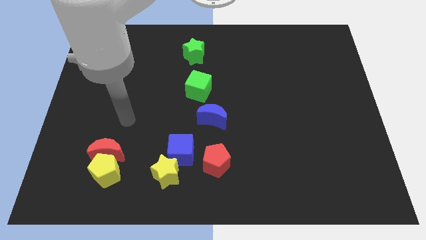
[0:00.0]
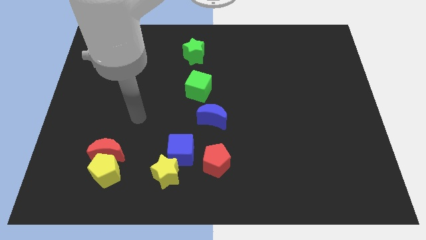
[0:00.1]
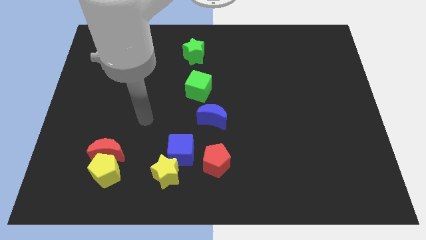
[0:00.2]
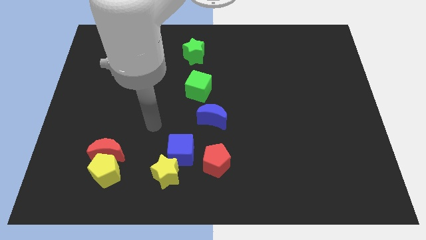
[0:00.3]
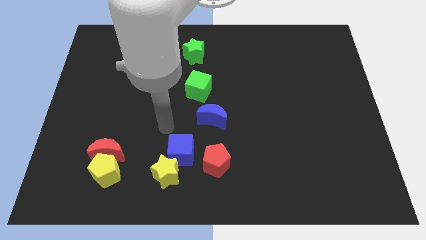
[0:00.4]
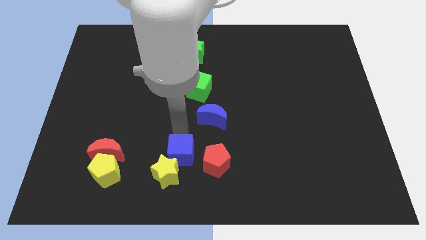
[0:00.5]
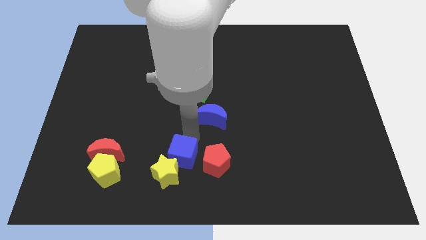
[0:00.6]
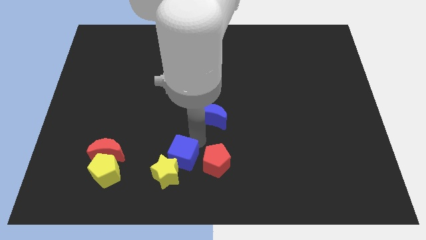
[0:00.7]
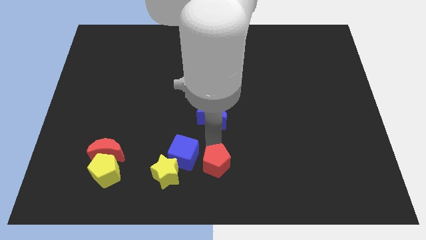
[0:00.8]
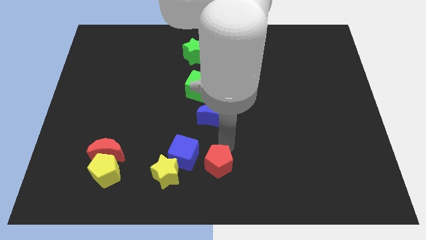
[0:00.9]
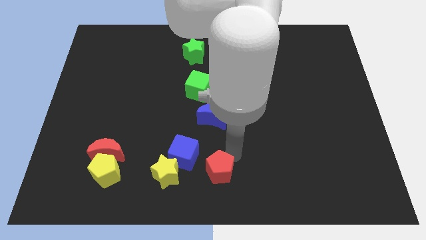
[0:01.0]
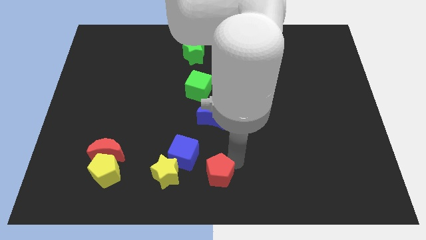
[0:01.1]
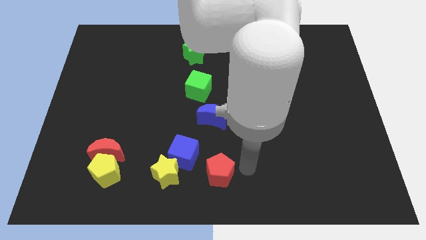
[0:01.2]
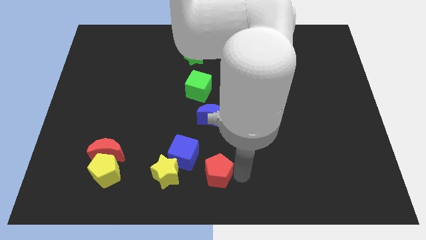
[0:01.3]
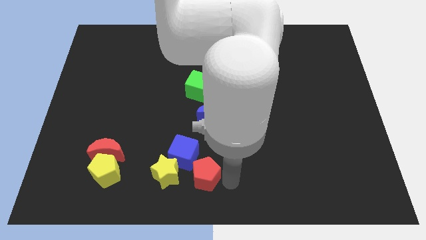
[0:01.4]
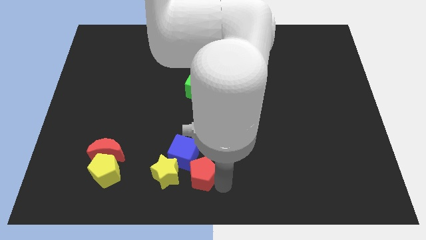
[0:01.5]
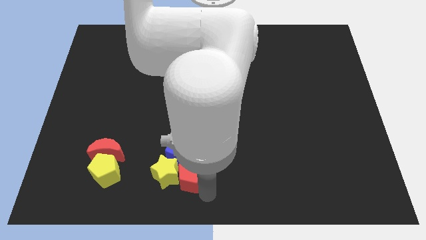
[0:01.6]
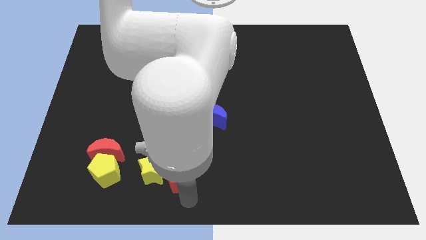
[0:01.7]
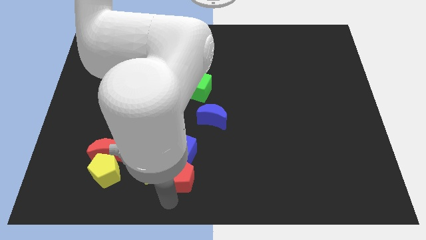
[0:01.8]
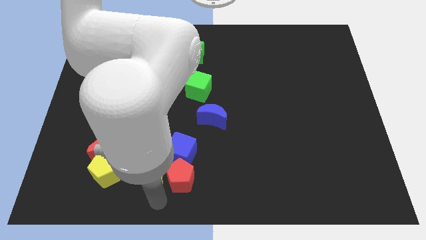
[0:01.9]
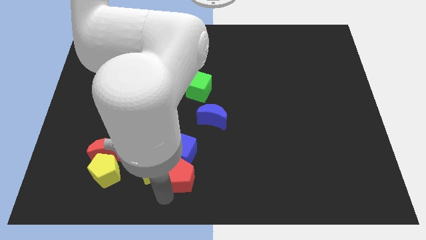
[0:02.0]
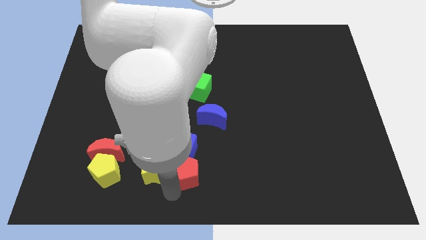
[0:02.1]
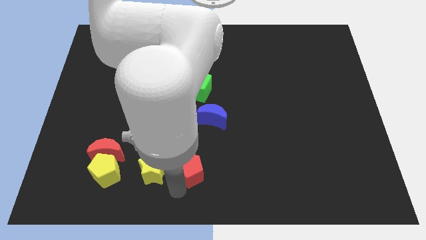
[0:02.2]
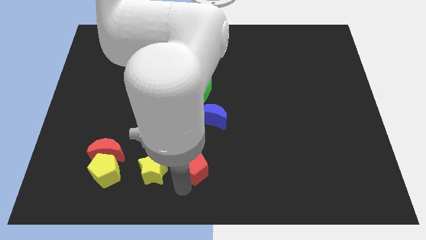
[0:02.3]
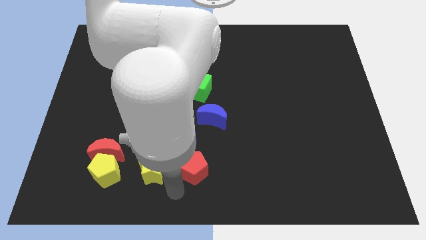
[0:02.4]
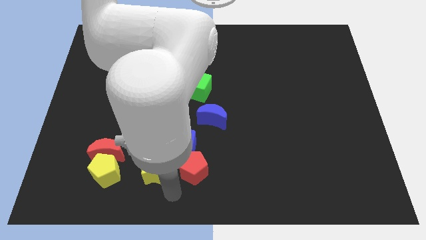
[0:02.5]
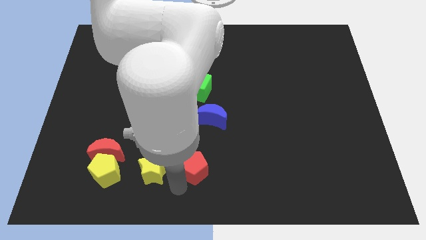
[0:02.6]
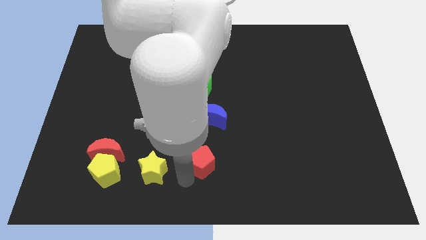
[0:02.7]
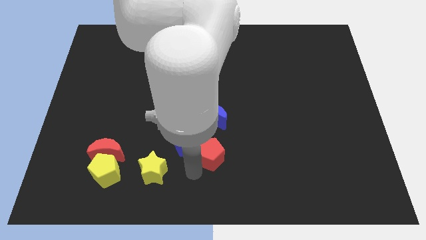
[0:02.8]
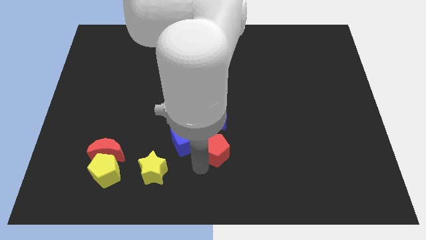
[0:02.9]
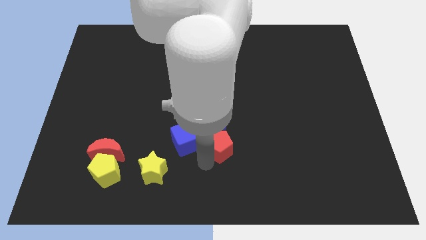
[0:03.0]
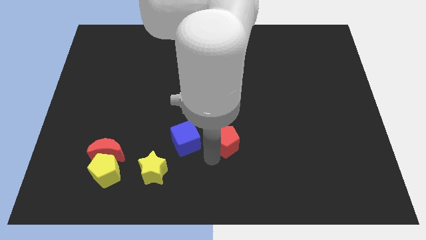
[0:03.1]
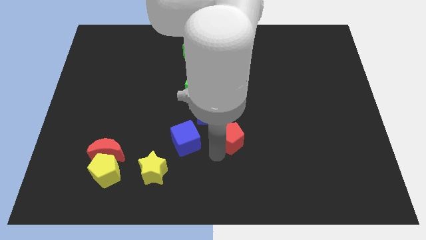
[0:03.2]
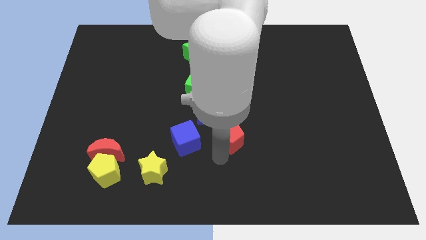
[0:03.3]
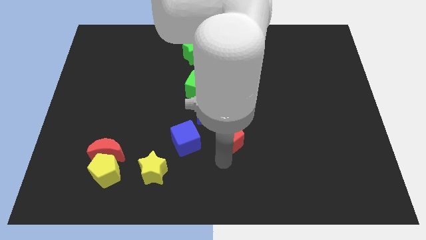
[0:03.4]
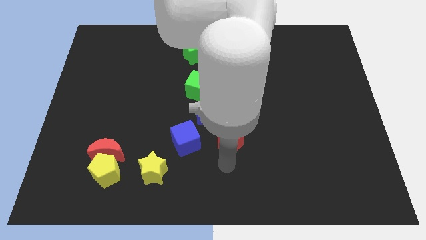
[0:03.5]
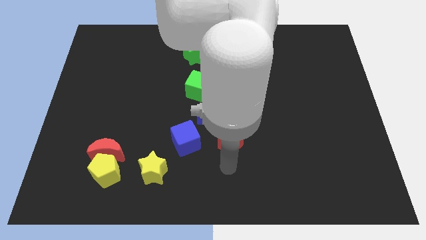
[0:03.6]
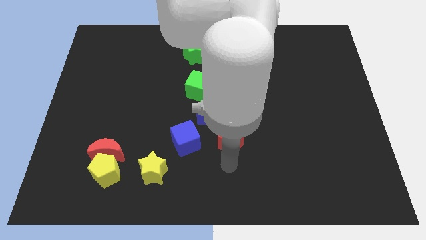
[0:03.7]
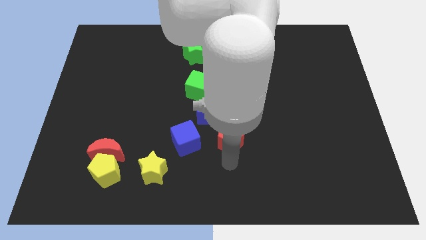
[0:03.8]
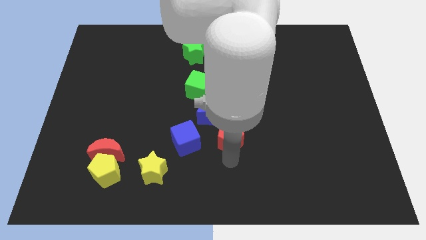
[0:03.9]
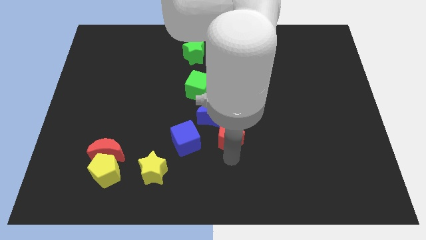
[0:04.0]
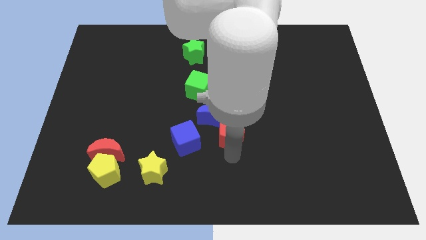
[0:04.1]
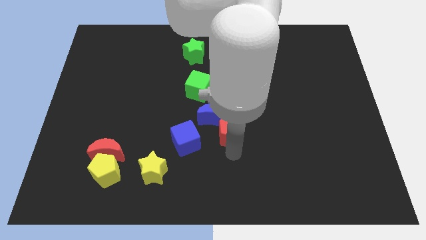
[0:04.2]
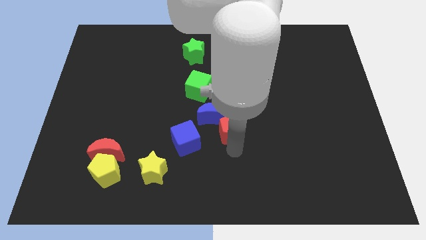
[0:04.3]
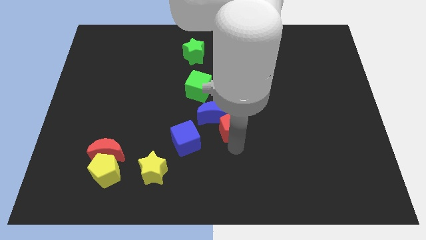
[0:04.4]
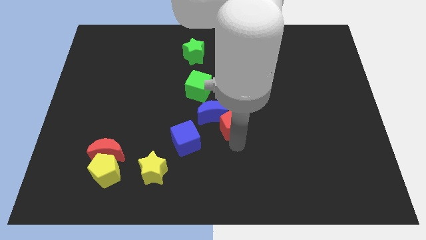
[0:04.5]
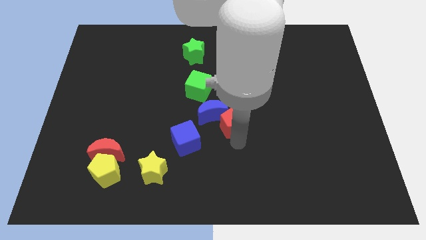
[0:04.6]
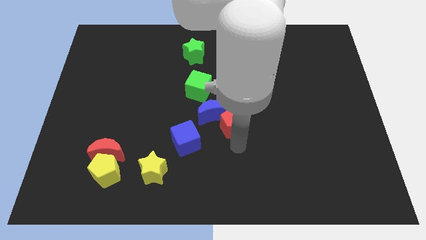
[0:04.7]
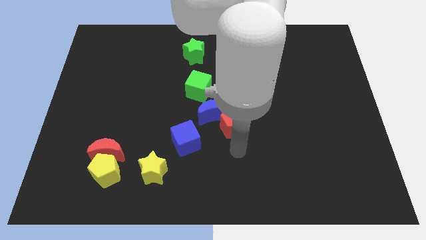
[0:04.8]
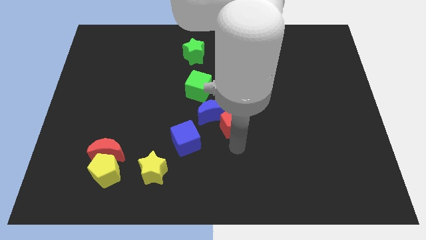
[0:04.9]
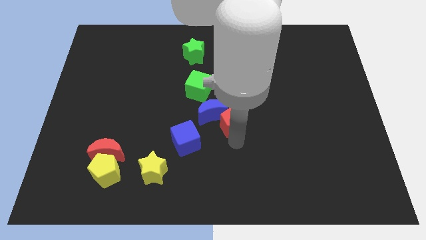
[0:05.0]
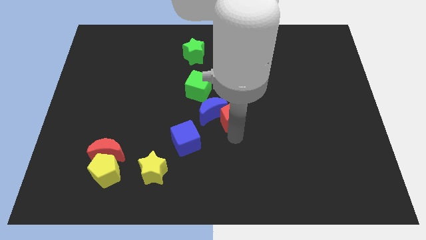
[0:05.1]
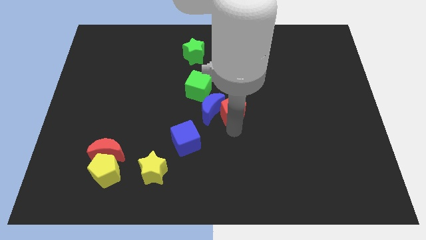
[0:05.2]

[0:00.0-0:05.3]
put the red pentagon to the top right of the blue moon

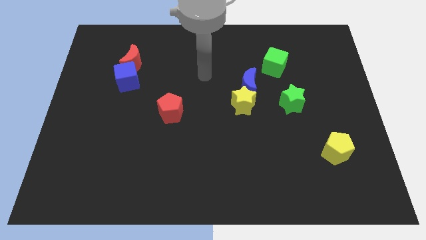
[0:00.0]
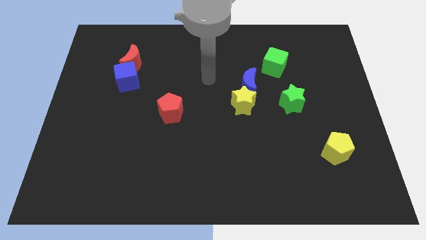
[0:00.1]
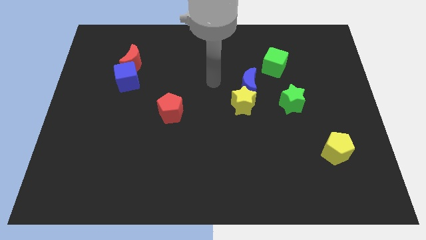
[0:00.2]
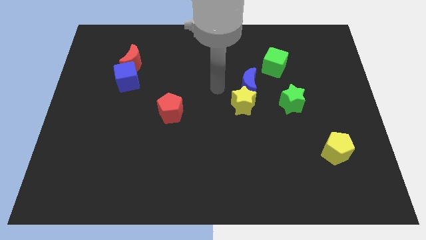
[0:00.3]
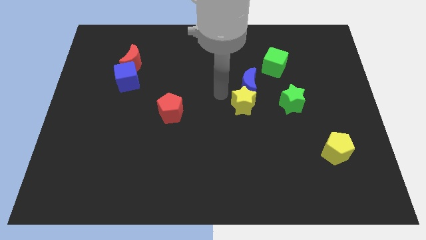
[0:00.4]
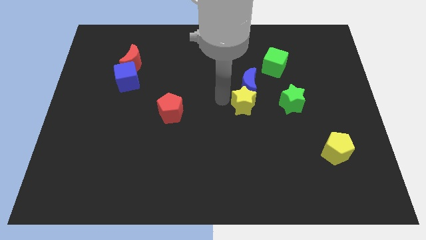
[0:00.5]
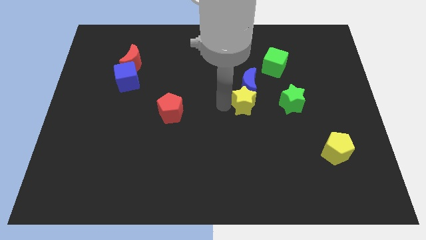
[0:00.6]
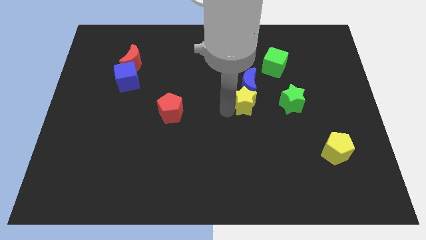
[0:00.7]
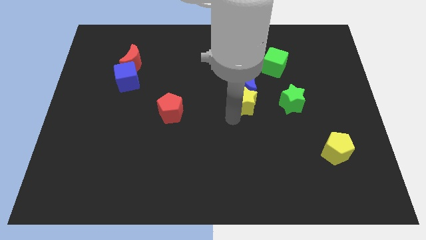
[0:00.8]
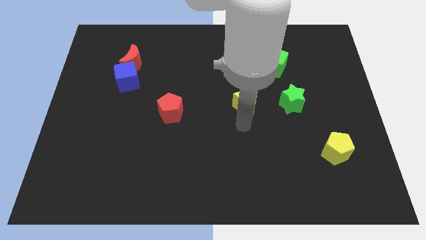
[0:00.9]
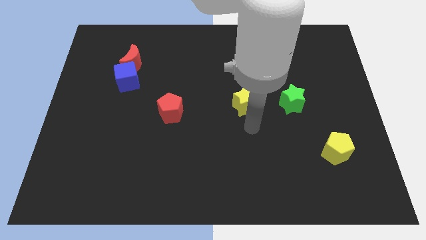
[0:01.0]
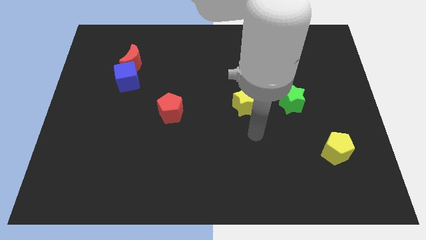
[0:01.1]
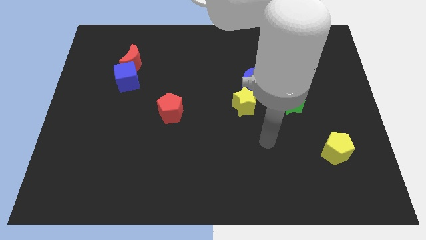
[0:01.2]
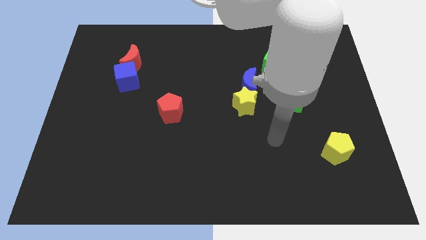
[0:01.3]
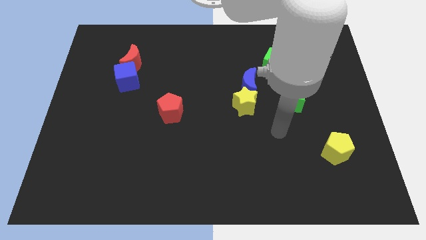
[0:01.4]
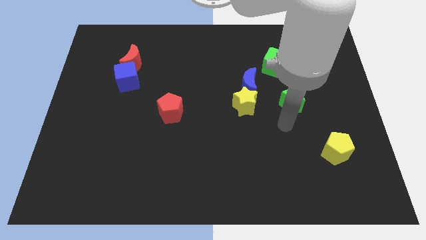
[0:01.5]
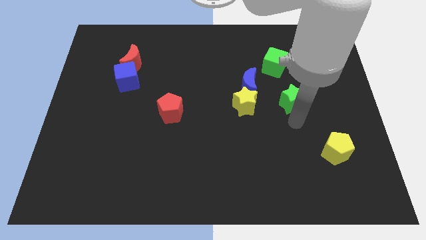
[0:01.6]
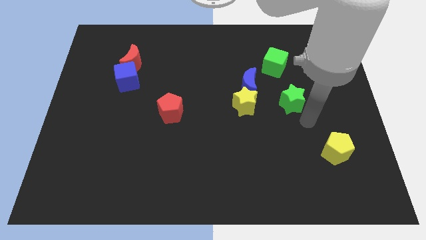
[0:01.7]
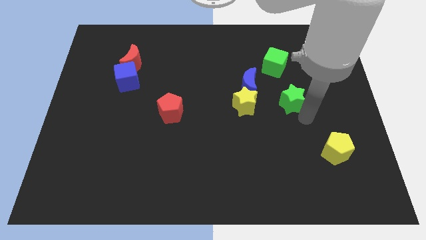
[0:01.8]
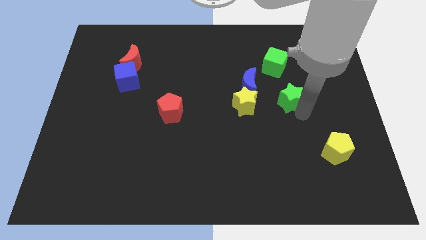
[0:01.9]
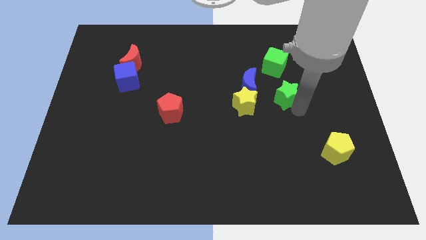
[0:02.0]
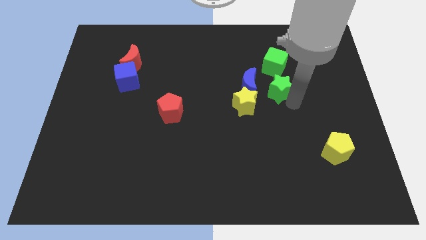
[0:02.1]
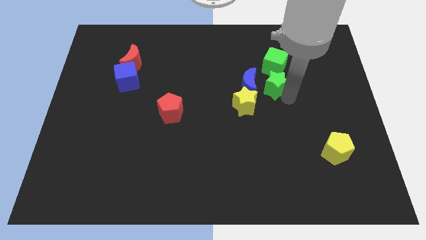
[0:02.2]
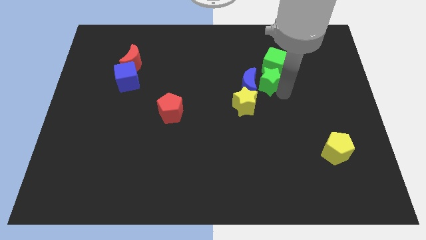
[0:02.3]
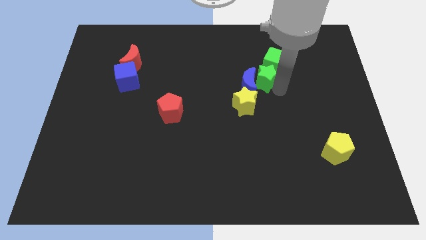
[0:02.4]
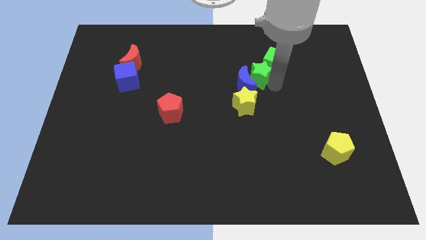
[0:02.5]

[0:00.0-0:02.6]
put the green star to the top of the yellow star

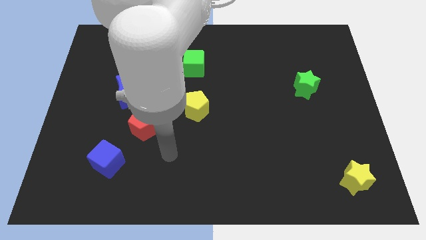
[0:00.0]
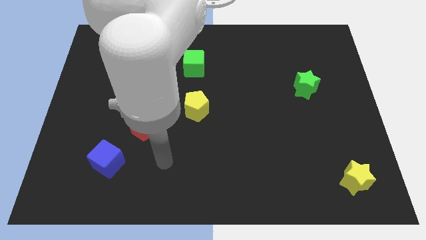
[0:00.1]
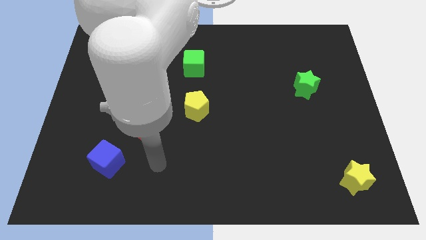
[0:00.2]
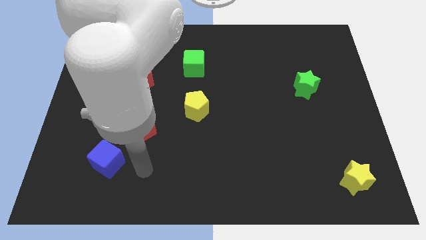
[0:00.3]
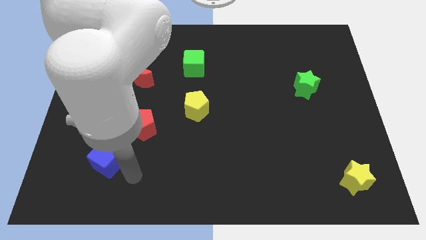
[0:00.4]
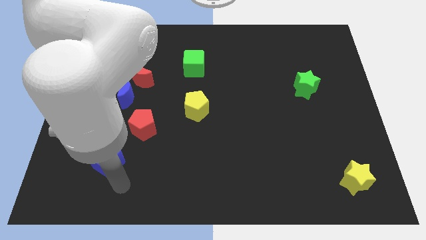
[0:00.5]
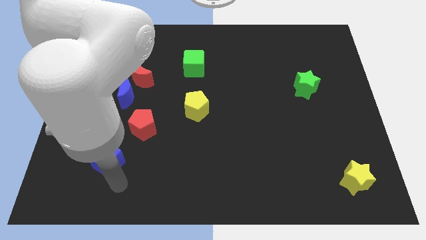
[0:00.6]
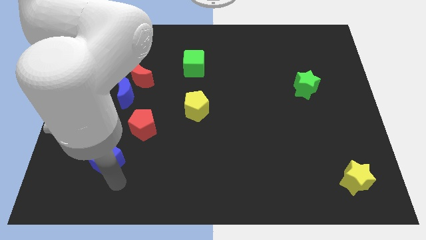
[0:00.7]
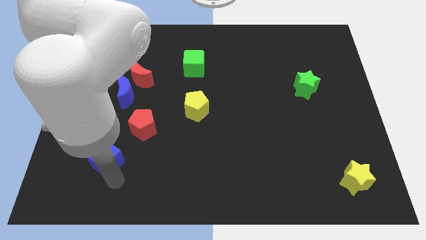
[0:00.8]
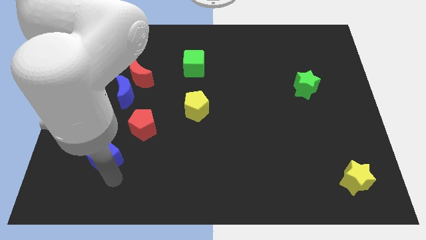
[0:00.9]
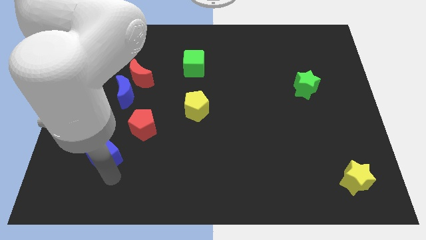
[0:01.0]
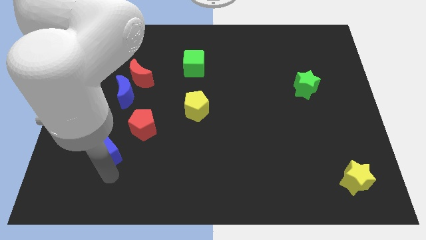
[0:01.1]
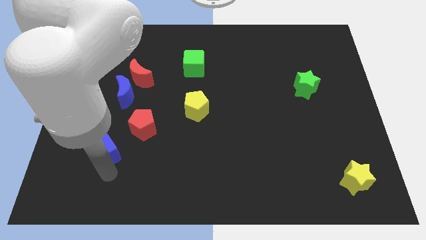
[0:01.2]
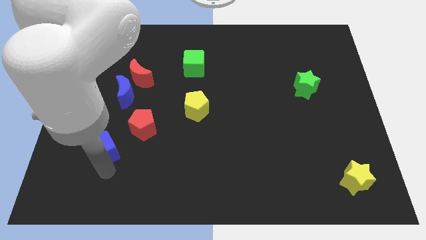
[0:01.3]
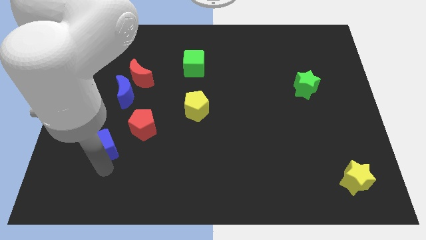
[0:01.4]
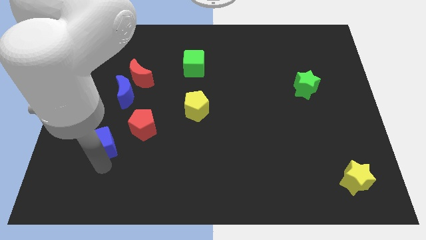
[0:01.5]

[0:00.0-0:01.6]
slide the blue cube just left of the red pentagon
